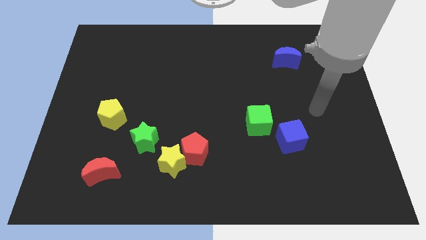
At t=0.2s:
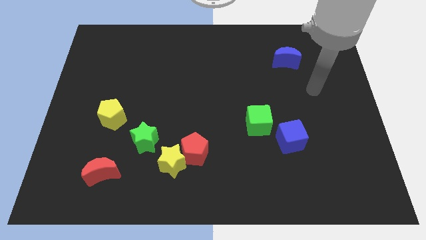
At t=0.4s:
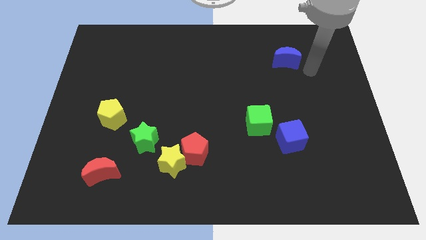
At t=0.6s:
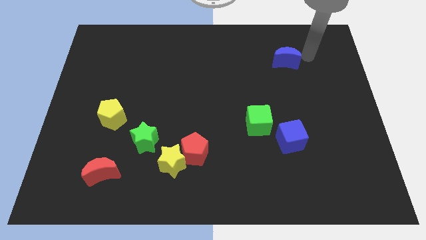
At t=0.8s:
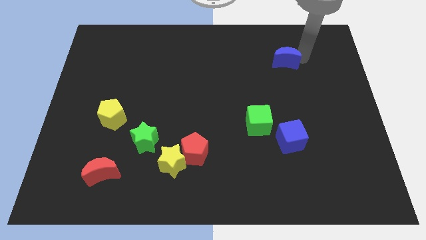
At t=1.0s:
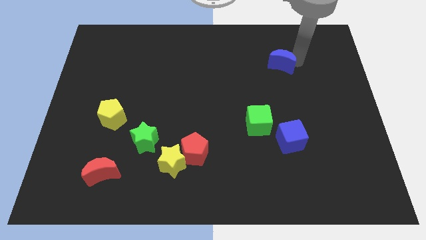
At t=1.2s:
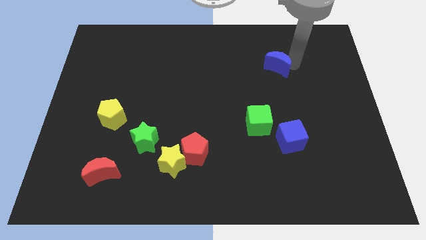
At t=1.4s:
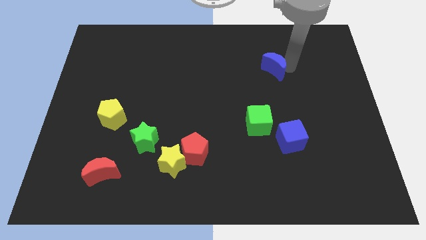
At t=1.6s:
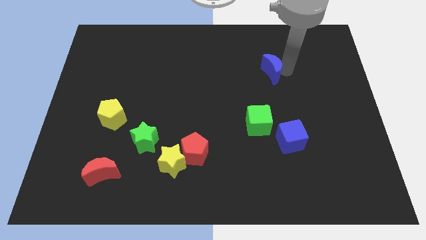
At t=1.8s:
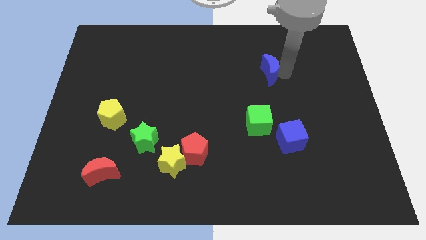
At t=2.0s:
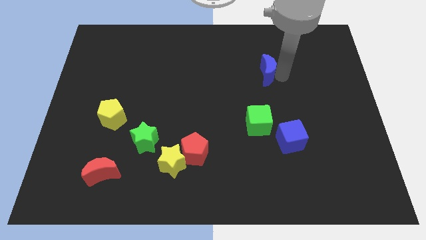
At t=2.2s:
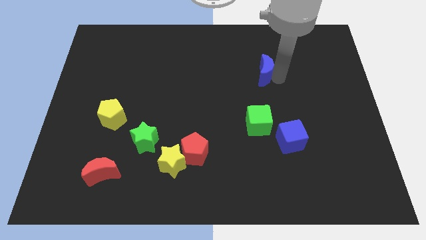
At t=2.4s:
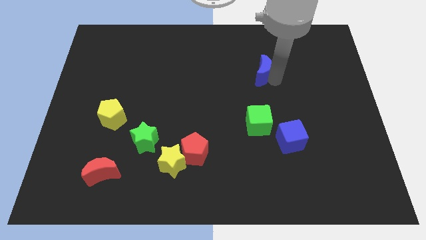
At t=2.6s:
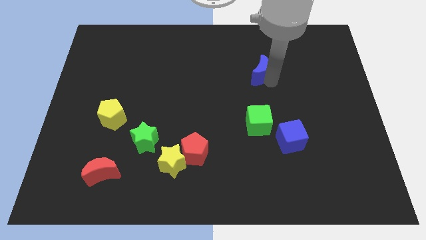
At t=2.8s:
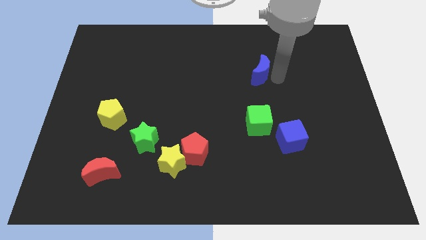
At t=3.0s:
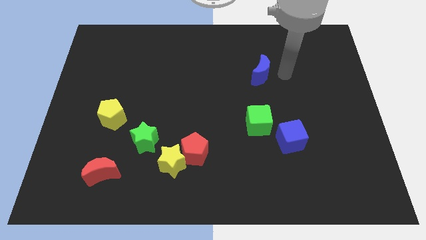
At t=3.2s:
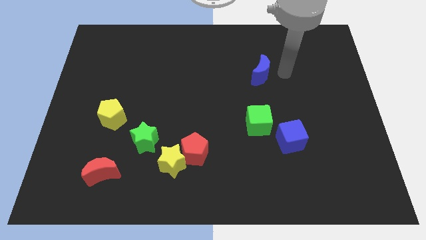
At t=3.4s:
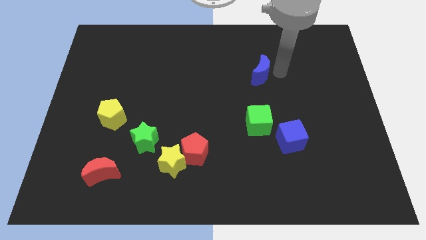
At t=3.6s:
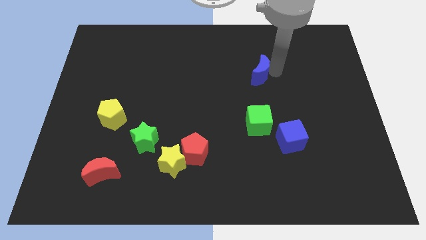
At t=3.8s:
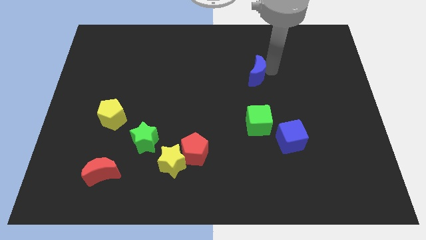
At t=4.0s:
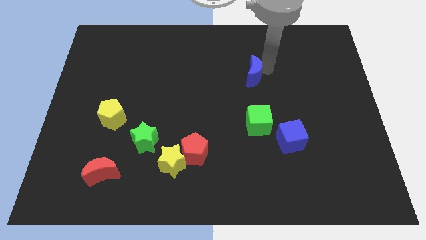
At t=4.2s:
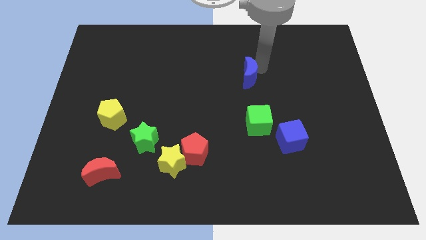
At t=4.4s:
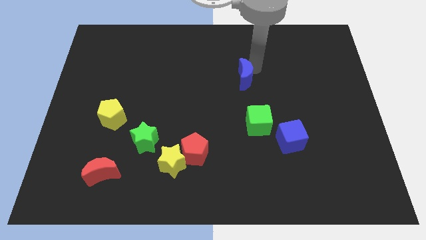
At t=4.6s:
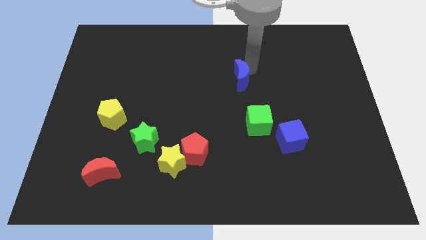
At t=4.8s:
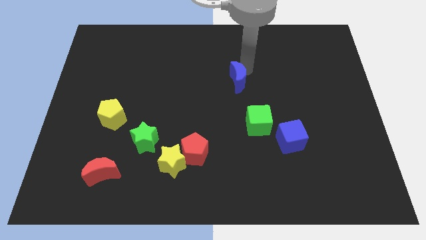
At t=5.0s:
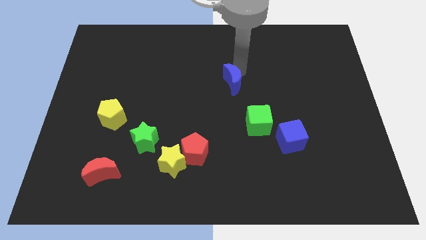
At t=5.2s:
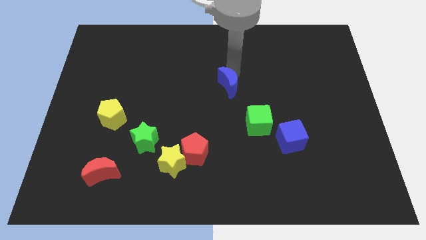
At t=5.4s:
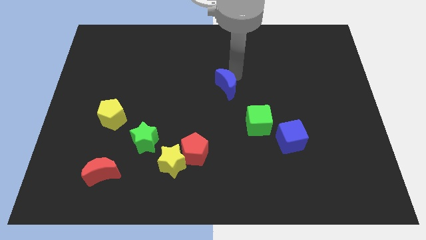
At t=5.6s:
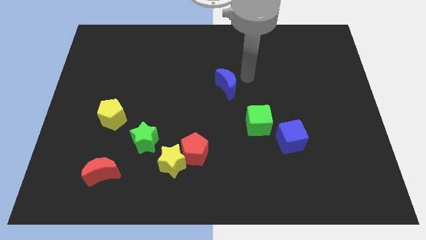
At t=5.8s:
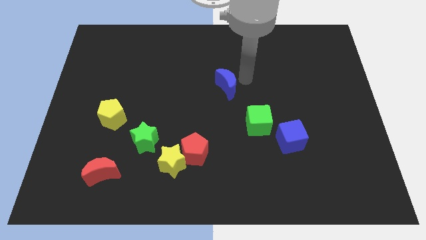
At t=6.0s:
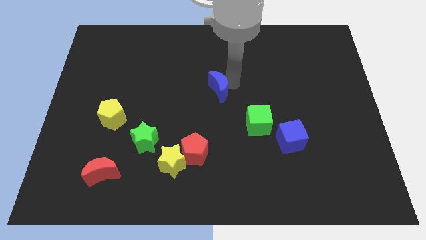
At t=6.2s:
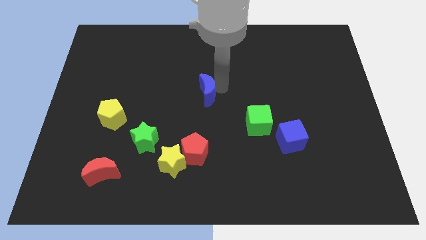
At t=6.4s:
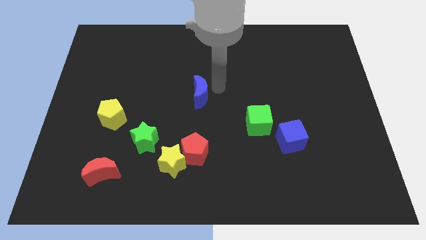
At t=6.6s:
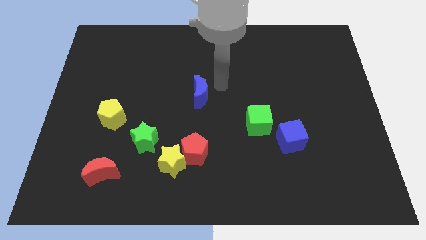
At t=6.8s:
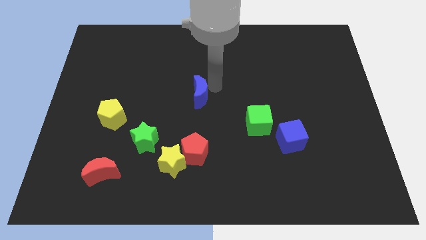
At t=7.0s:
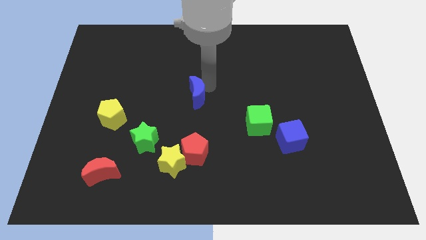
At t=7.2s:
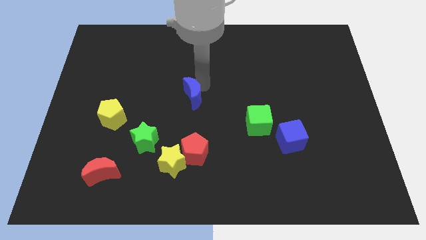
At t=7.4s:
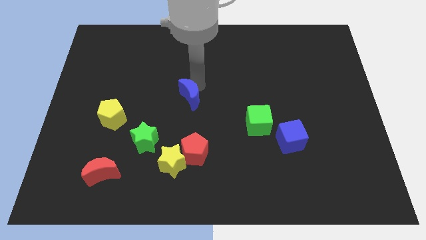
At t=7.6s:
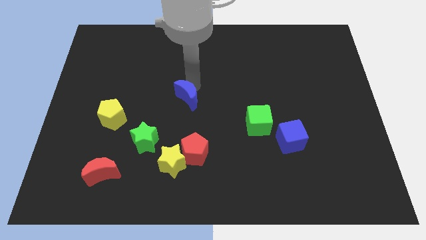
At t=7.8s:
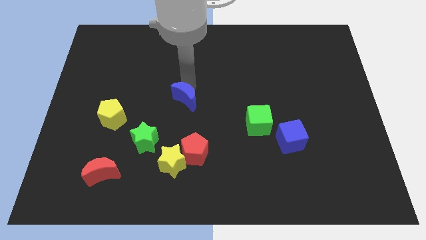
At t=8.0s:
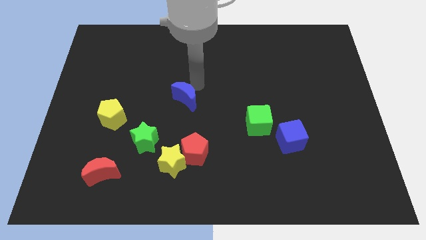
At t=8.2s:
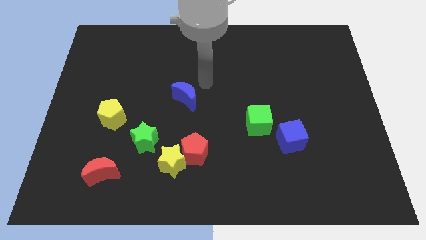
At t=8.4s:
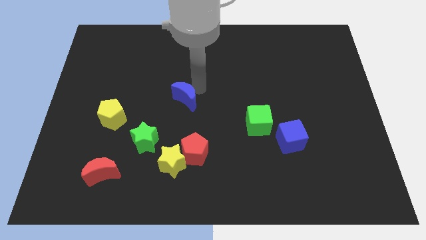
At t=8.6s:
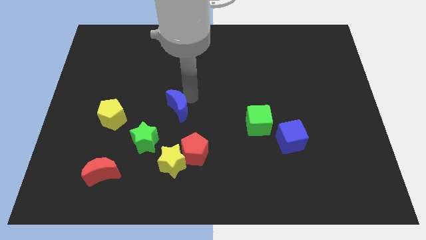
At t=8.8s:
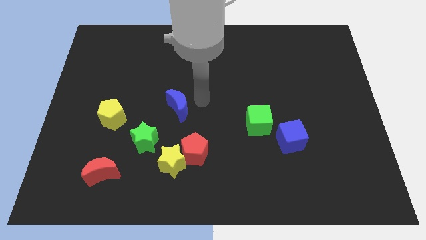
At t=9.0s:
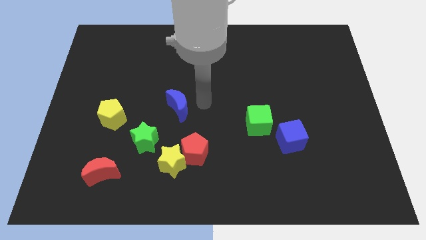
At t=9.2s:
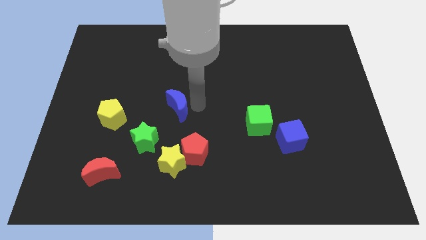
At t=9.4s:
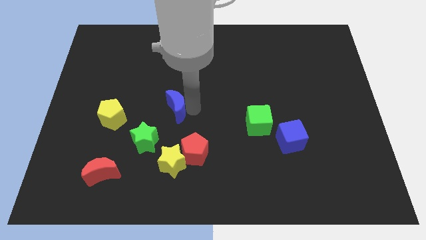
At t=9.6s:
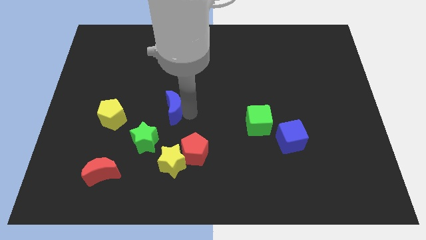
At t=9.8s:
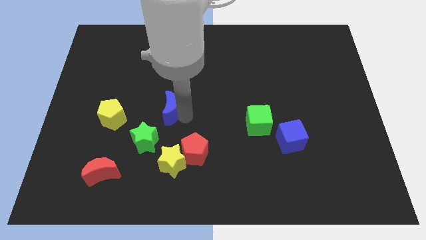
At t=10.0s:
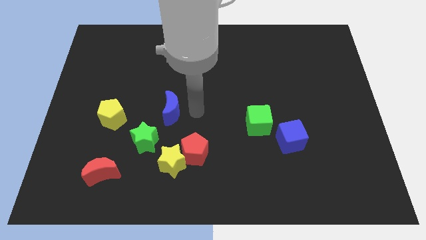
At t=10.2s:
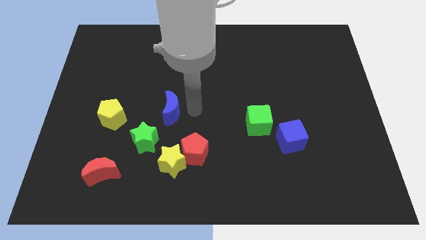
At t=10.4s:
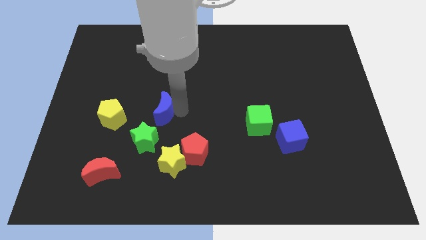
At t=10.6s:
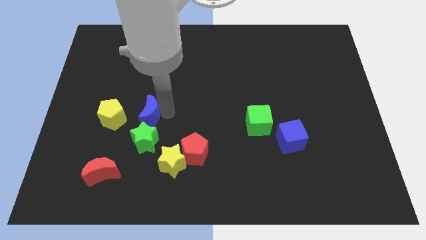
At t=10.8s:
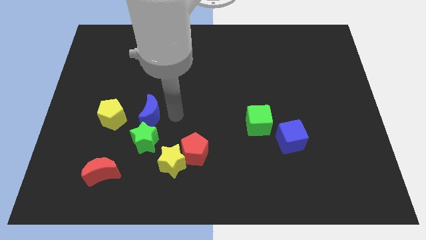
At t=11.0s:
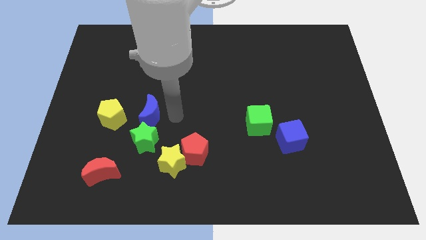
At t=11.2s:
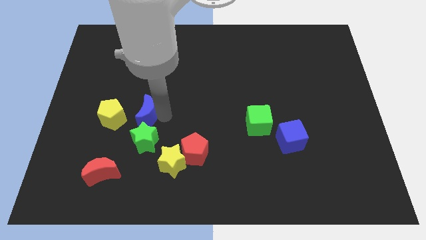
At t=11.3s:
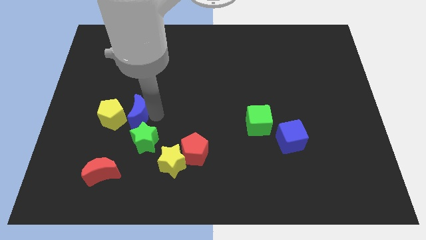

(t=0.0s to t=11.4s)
push the blue moon to the yellow pentagon

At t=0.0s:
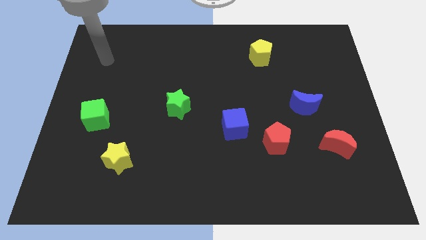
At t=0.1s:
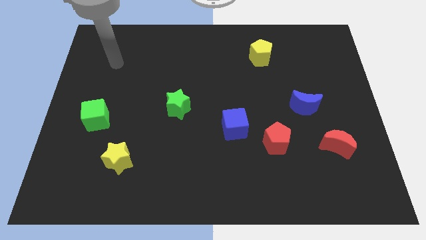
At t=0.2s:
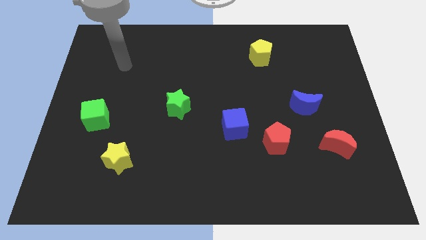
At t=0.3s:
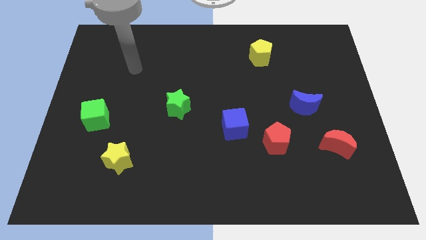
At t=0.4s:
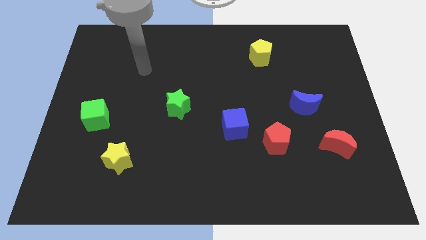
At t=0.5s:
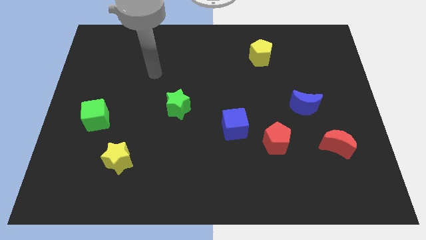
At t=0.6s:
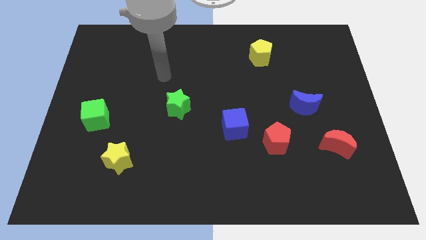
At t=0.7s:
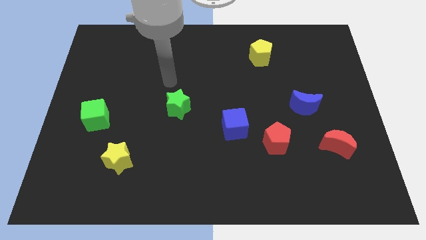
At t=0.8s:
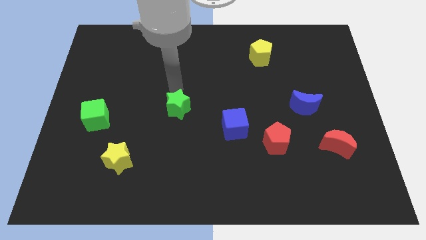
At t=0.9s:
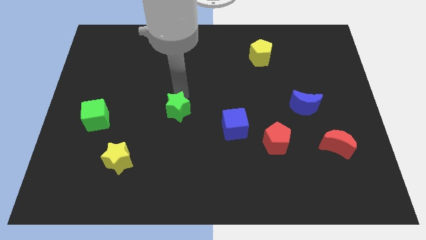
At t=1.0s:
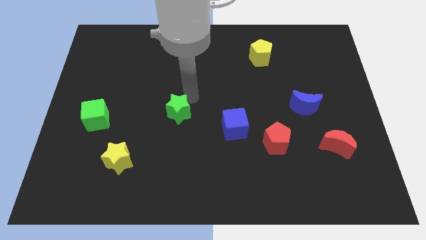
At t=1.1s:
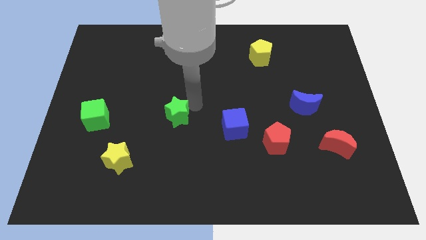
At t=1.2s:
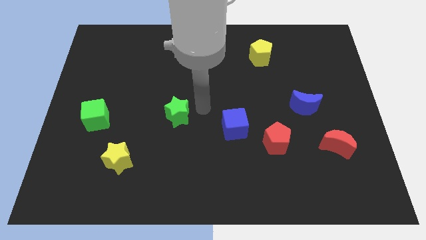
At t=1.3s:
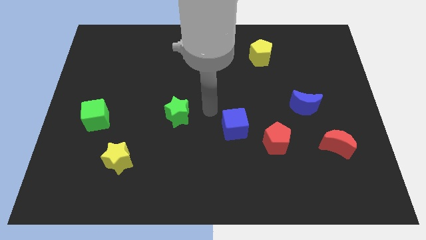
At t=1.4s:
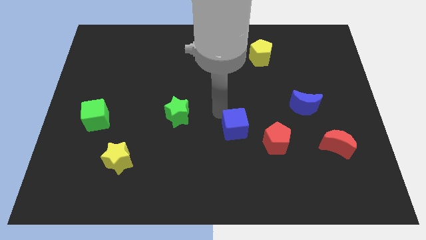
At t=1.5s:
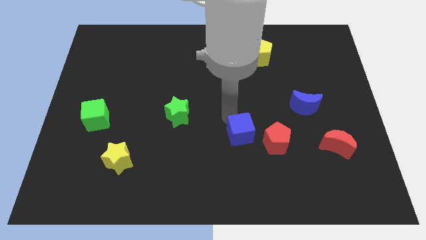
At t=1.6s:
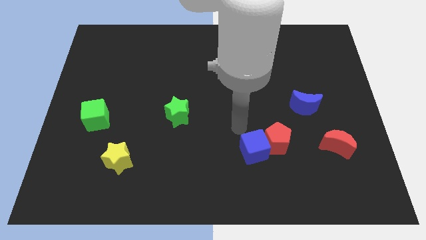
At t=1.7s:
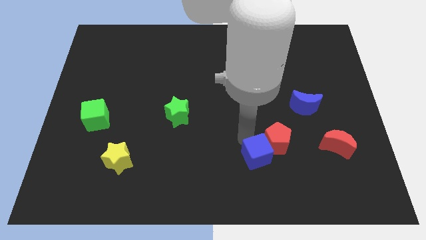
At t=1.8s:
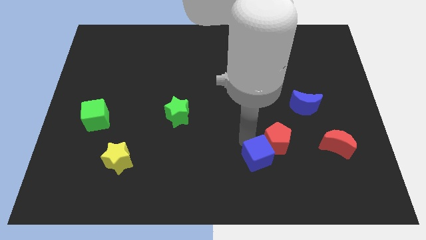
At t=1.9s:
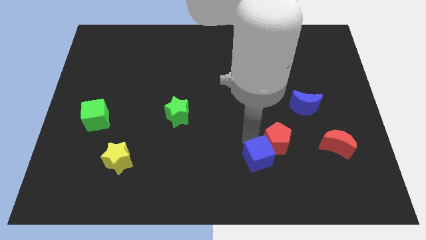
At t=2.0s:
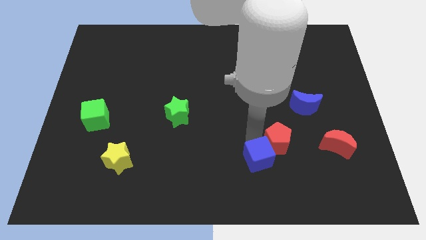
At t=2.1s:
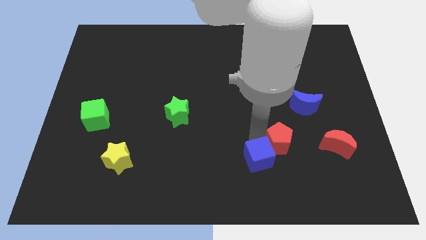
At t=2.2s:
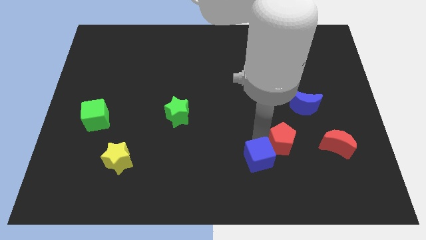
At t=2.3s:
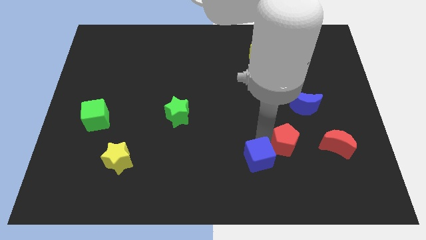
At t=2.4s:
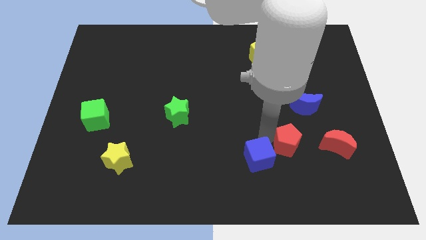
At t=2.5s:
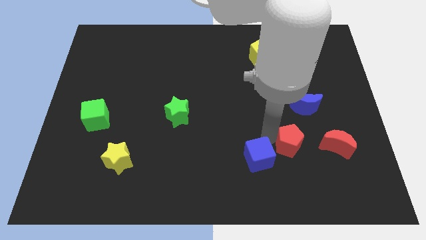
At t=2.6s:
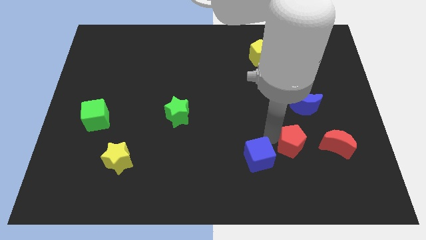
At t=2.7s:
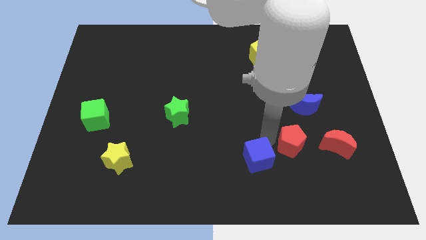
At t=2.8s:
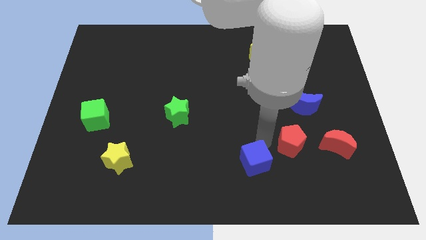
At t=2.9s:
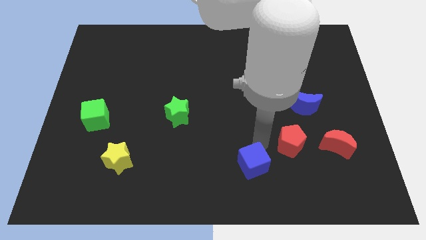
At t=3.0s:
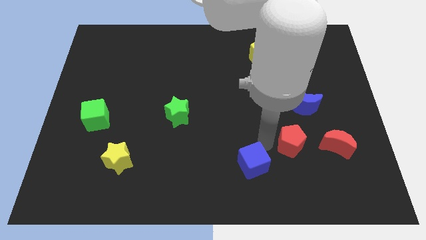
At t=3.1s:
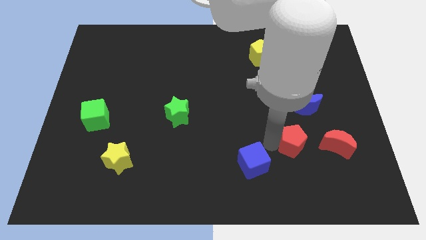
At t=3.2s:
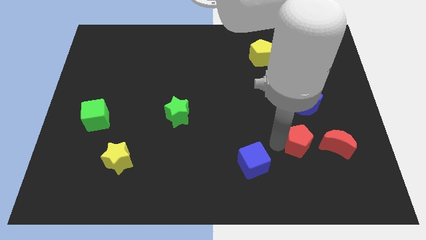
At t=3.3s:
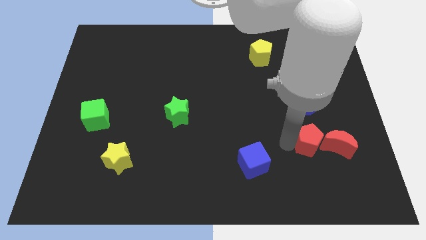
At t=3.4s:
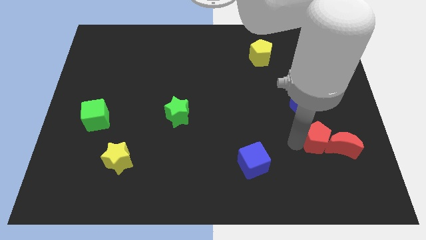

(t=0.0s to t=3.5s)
slide the red pentagon towards the red moon
